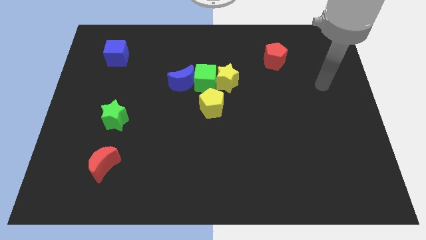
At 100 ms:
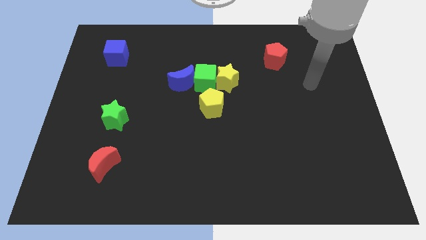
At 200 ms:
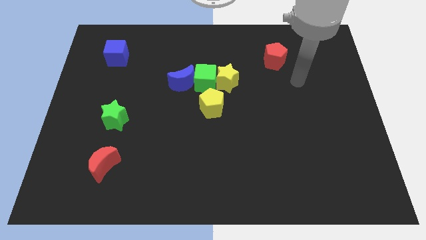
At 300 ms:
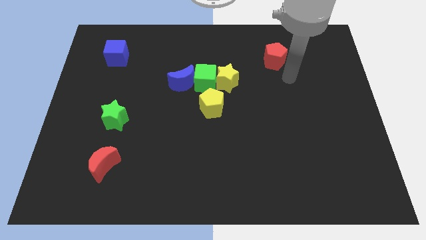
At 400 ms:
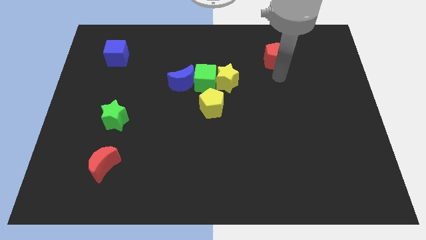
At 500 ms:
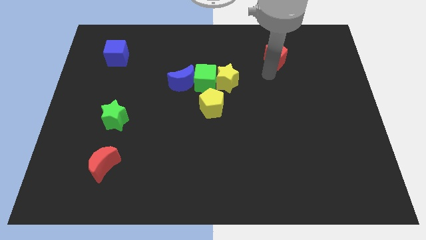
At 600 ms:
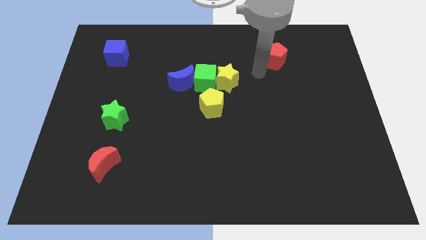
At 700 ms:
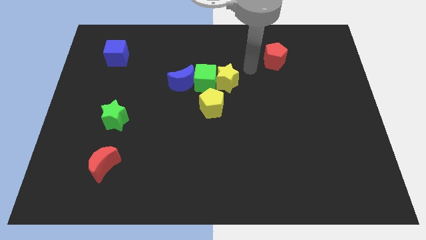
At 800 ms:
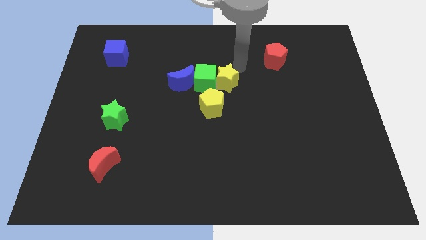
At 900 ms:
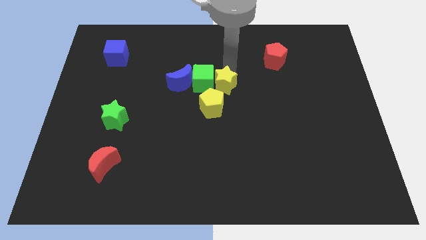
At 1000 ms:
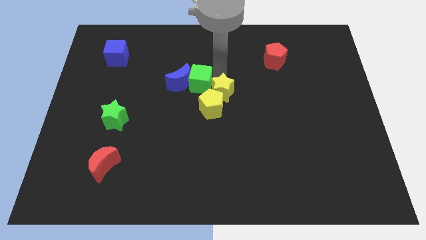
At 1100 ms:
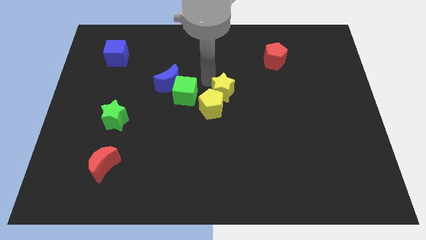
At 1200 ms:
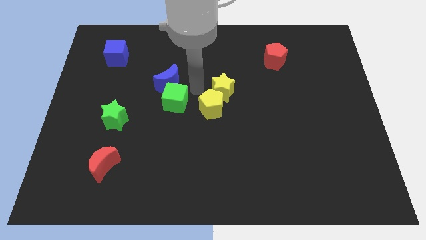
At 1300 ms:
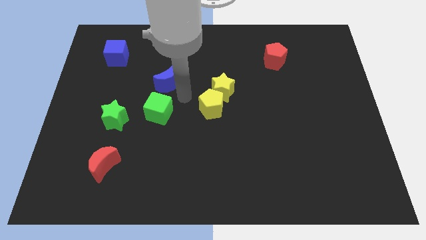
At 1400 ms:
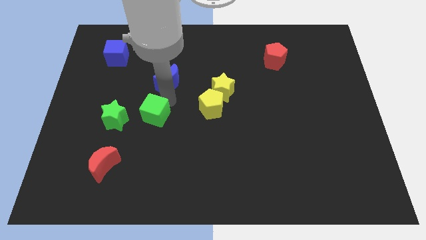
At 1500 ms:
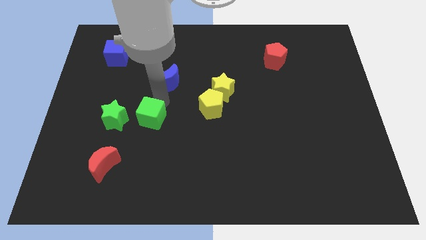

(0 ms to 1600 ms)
move the blue moon away from the green cube

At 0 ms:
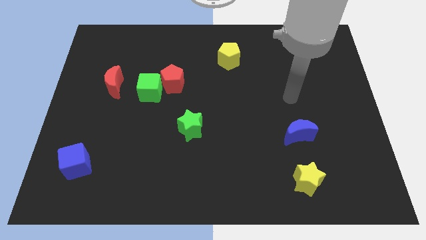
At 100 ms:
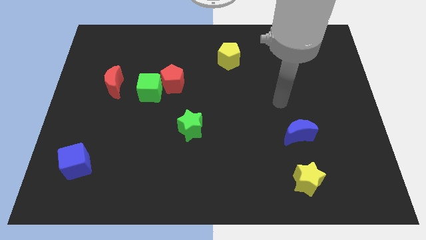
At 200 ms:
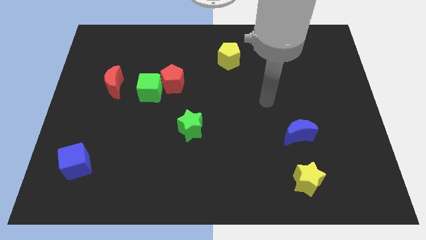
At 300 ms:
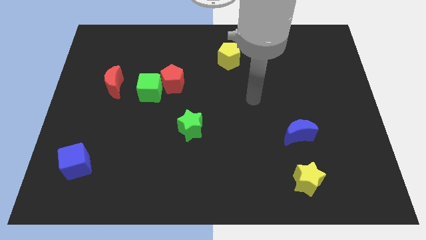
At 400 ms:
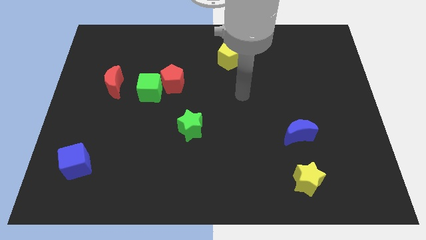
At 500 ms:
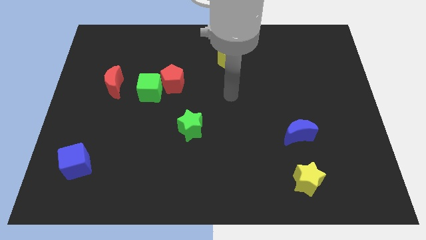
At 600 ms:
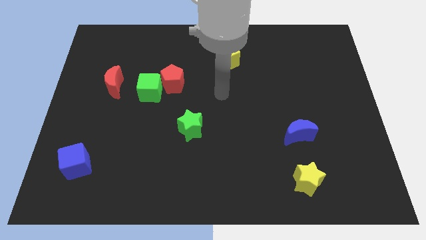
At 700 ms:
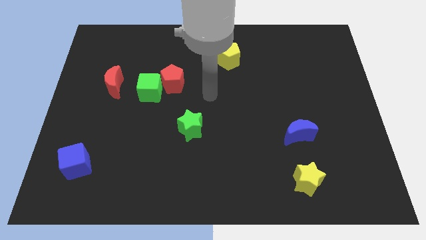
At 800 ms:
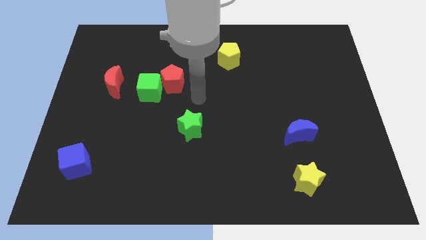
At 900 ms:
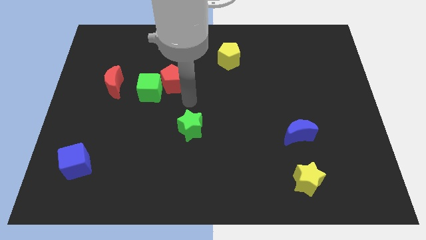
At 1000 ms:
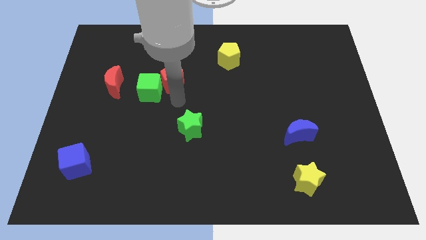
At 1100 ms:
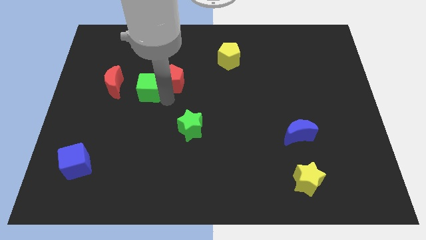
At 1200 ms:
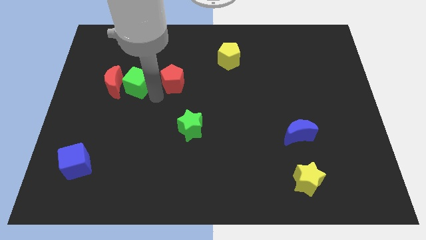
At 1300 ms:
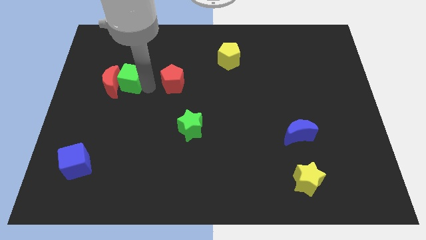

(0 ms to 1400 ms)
pull the red pentagon apart from the green cube

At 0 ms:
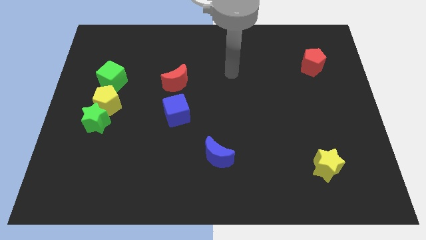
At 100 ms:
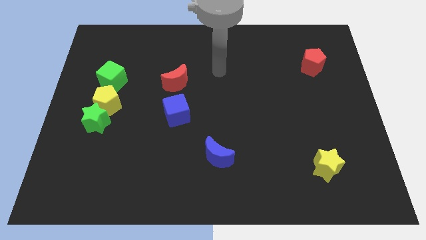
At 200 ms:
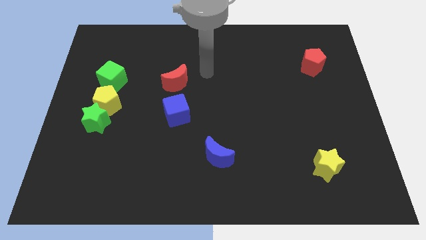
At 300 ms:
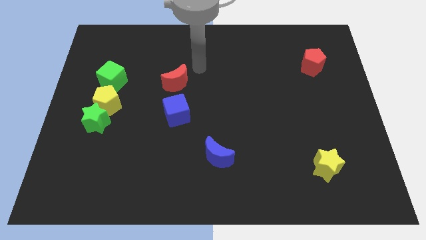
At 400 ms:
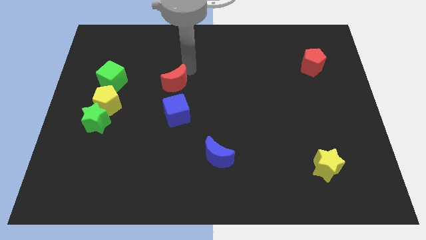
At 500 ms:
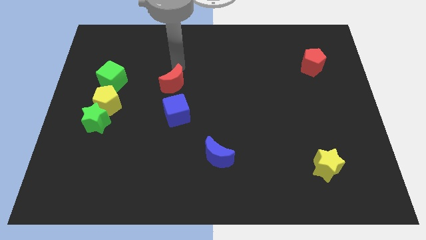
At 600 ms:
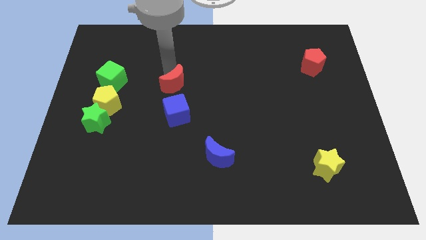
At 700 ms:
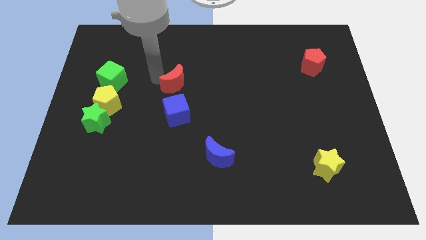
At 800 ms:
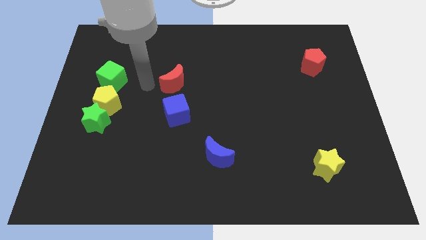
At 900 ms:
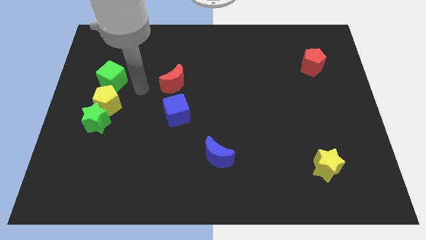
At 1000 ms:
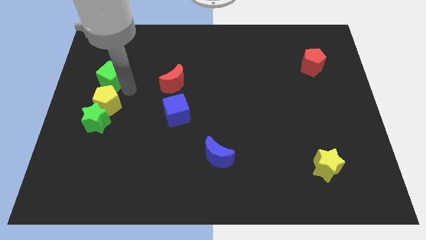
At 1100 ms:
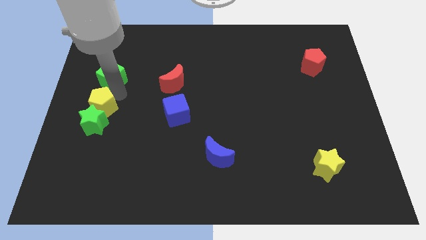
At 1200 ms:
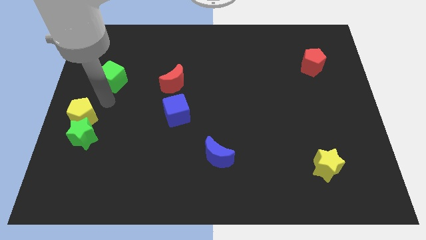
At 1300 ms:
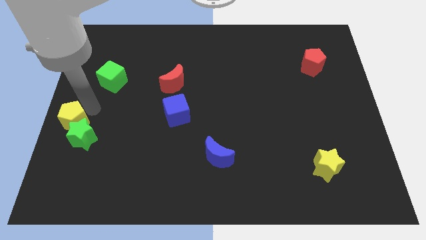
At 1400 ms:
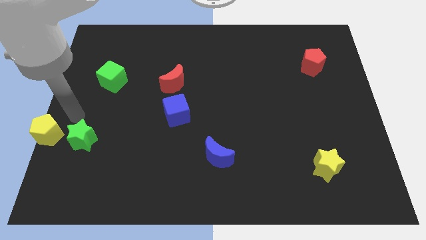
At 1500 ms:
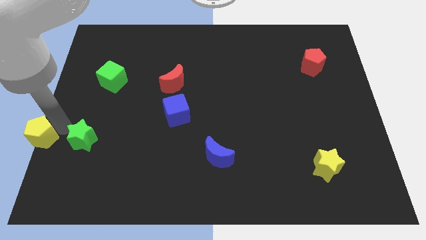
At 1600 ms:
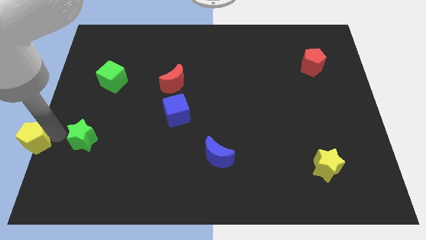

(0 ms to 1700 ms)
pull the green star apart from the yellow pentagon

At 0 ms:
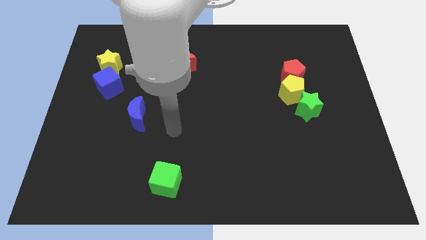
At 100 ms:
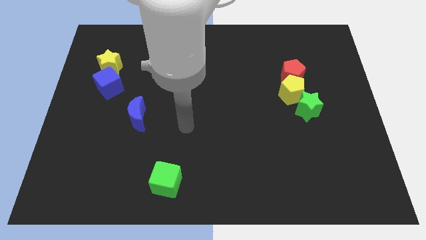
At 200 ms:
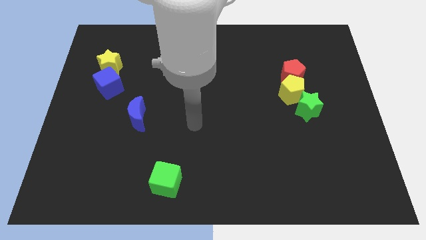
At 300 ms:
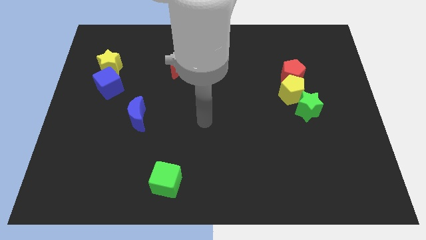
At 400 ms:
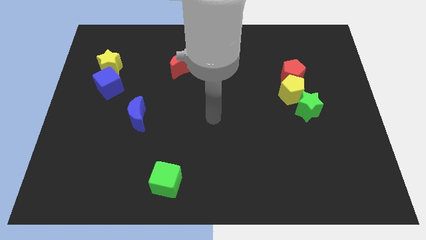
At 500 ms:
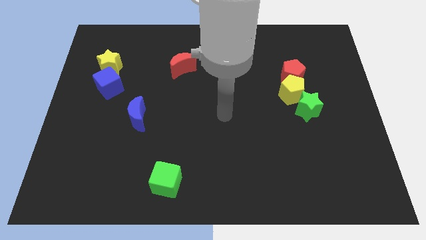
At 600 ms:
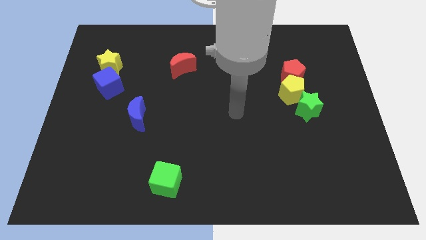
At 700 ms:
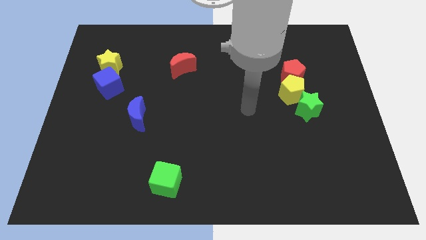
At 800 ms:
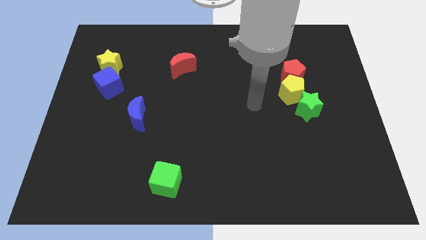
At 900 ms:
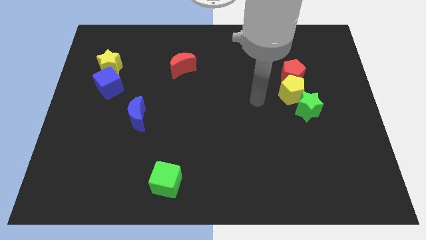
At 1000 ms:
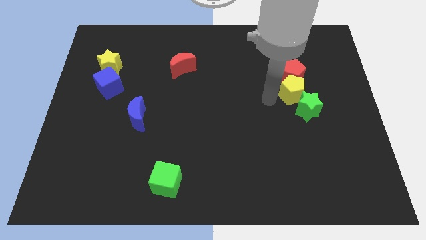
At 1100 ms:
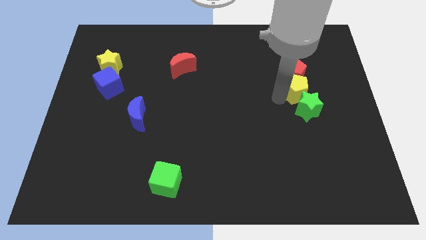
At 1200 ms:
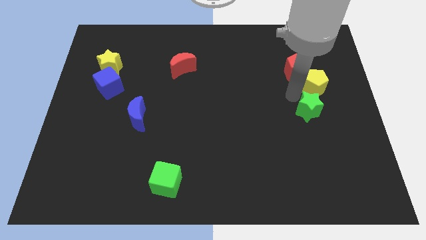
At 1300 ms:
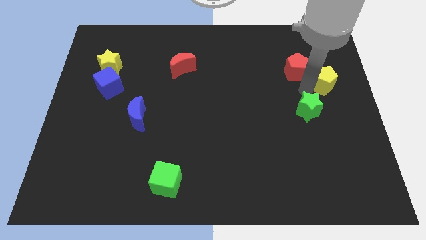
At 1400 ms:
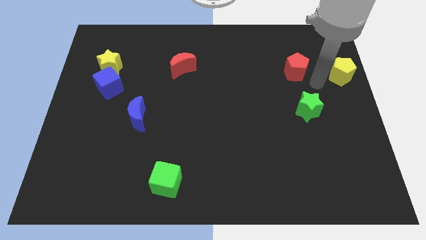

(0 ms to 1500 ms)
move the red pentagon away from the yellow pentagon

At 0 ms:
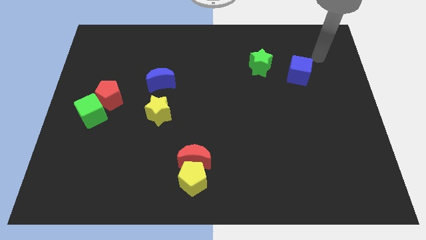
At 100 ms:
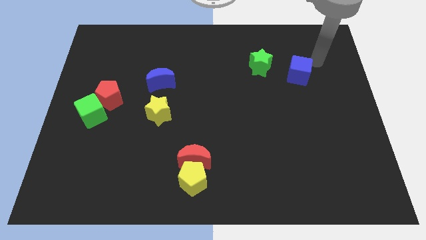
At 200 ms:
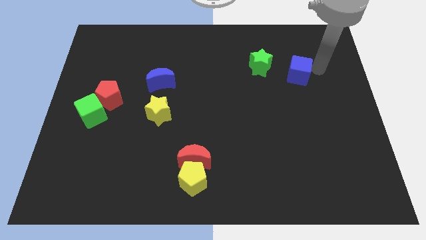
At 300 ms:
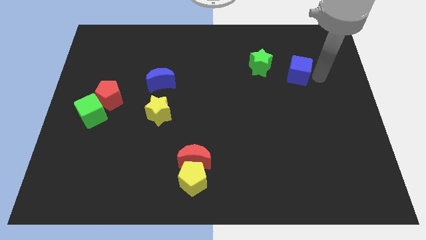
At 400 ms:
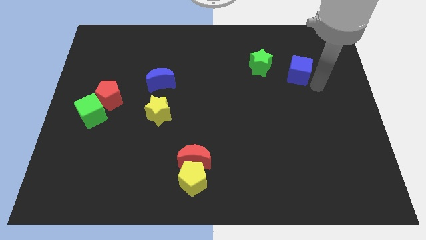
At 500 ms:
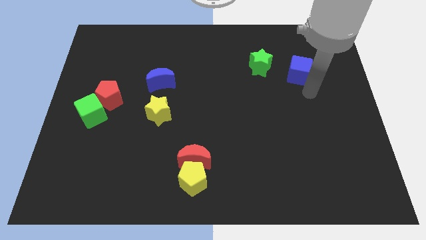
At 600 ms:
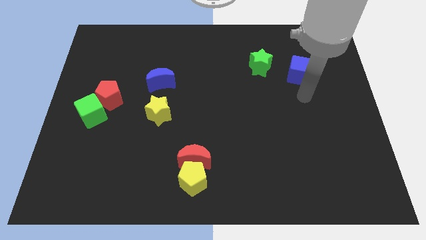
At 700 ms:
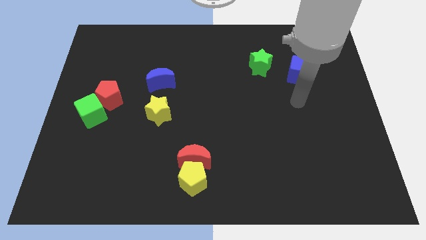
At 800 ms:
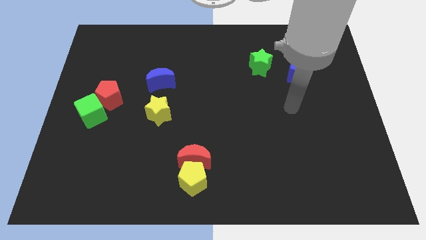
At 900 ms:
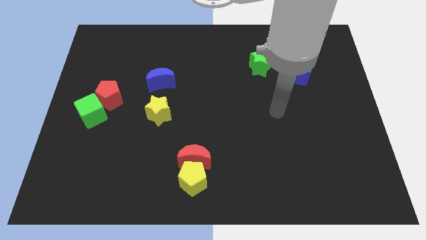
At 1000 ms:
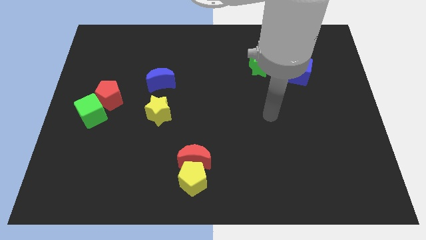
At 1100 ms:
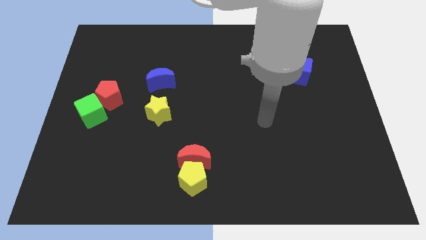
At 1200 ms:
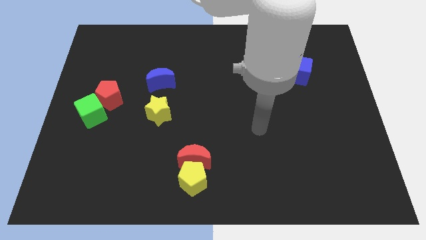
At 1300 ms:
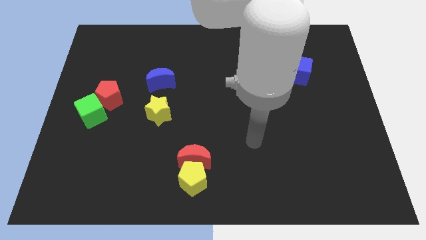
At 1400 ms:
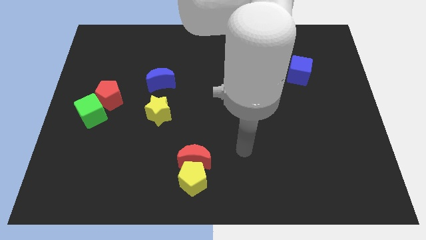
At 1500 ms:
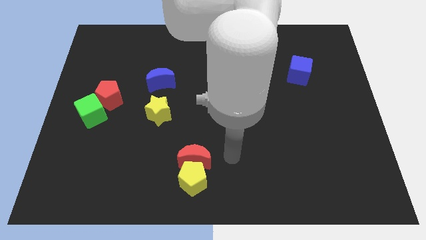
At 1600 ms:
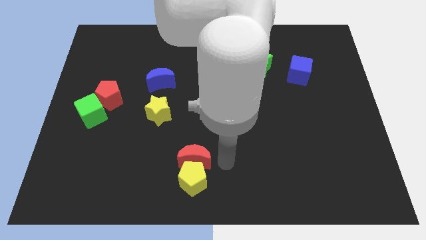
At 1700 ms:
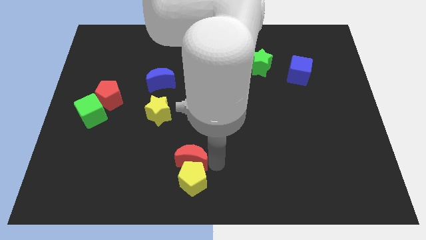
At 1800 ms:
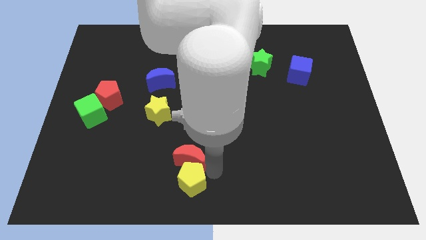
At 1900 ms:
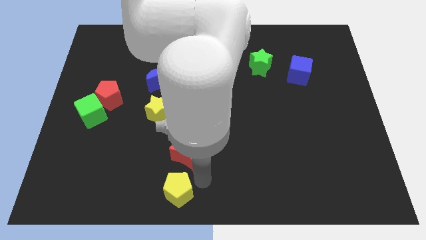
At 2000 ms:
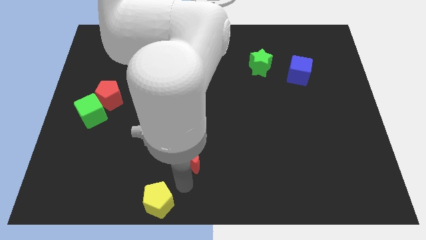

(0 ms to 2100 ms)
separate the red moon from the yellow pentagon

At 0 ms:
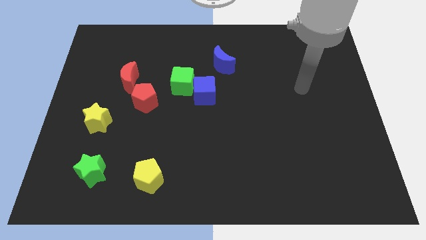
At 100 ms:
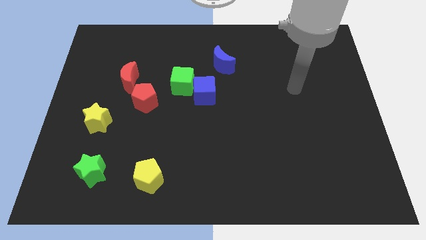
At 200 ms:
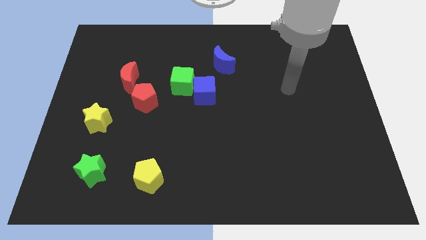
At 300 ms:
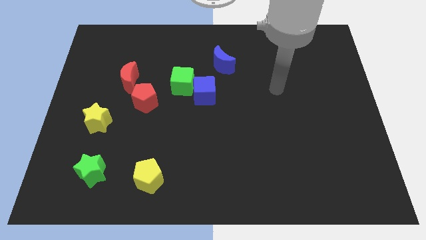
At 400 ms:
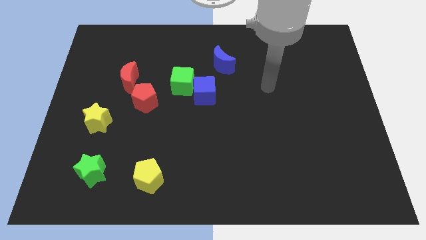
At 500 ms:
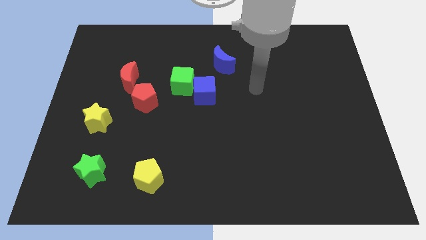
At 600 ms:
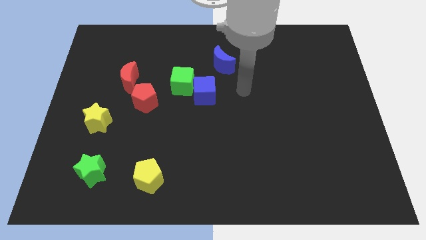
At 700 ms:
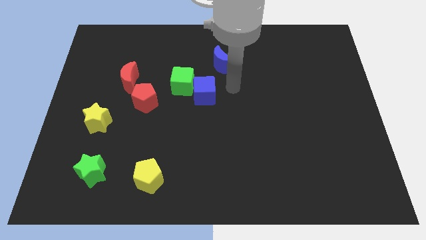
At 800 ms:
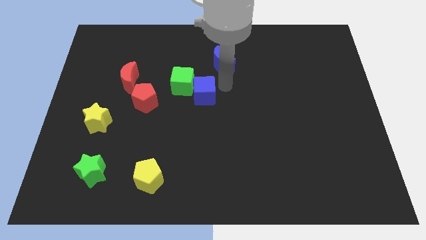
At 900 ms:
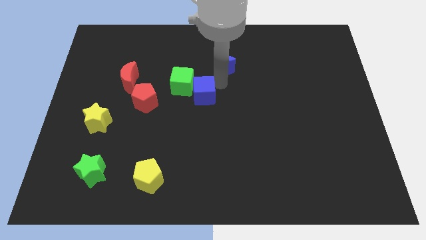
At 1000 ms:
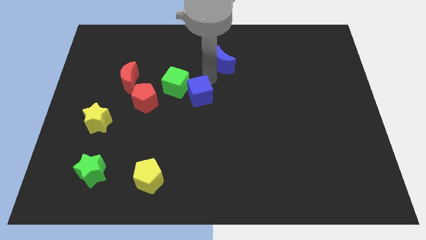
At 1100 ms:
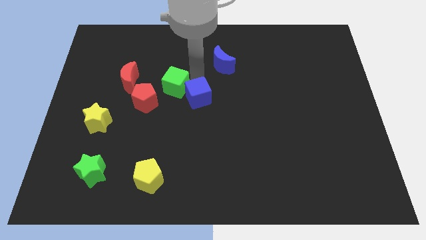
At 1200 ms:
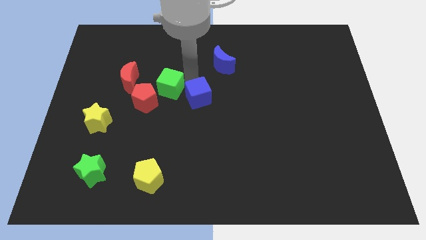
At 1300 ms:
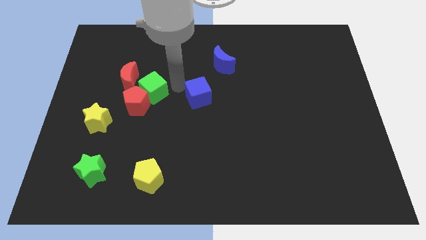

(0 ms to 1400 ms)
separate the blue cube from the green cube
